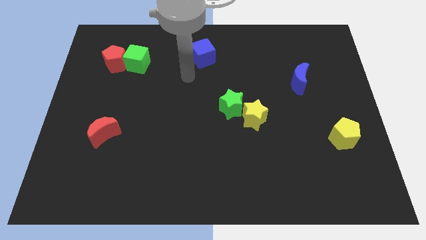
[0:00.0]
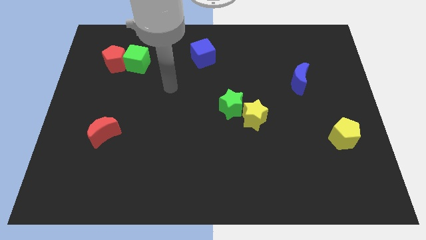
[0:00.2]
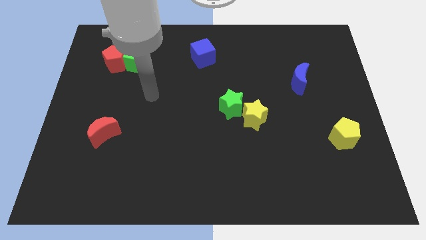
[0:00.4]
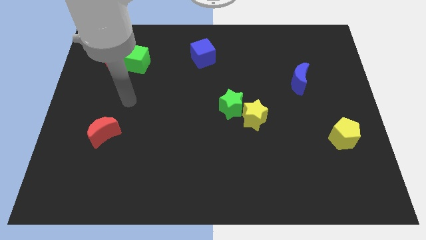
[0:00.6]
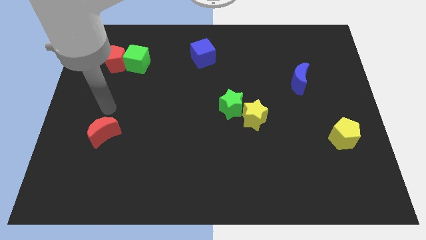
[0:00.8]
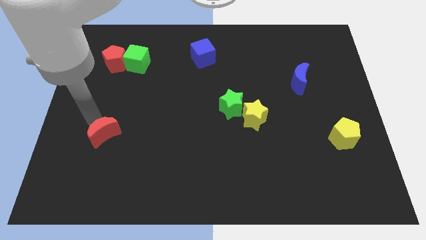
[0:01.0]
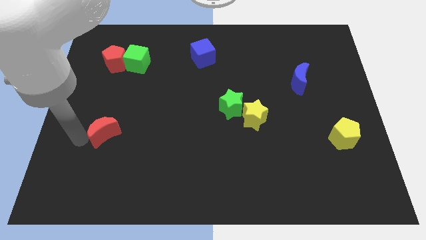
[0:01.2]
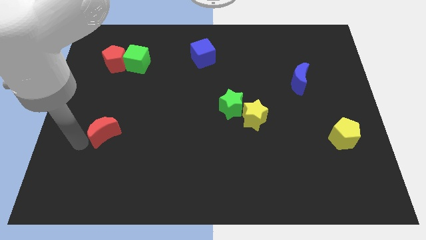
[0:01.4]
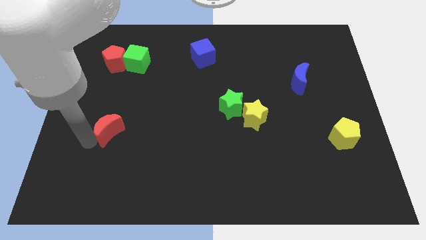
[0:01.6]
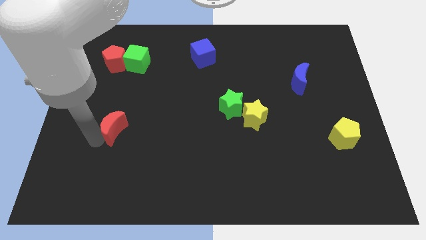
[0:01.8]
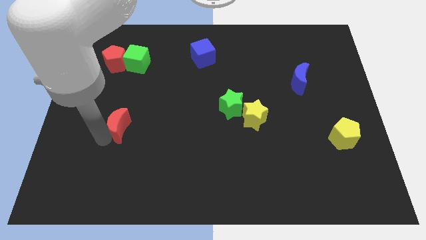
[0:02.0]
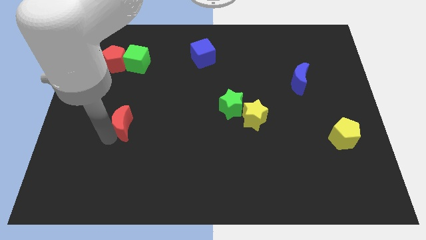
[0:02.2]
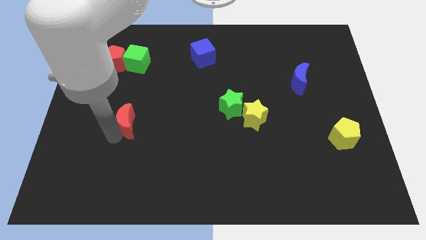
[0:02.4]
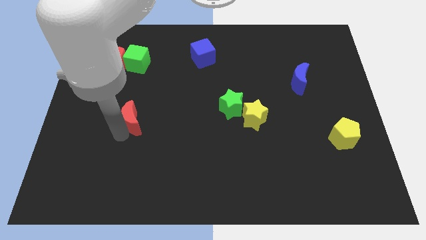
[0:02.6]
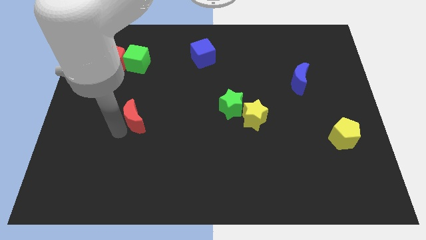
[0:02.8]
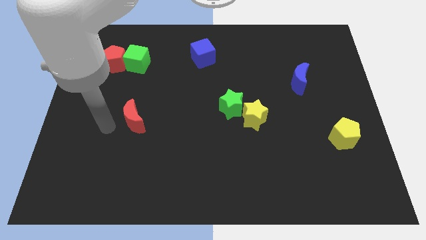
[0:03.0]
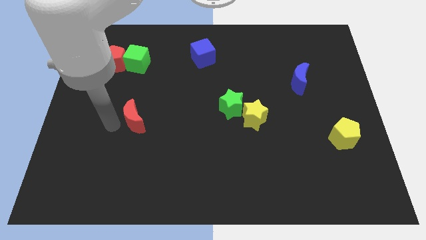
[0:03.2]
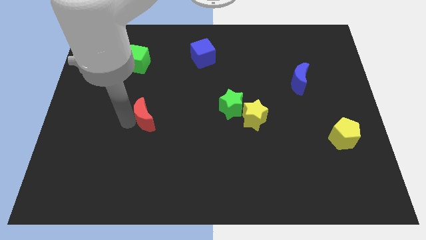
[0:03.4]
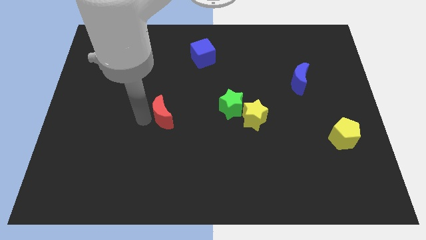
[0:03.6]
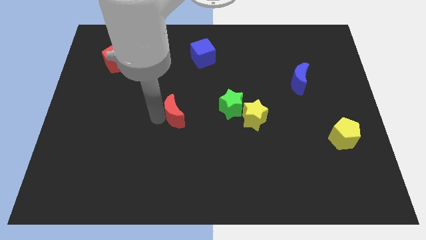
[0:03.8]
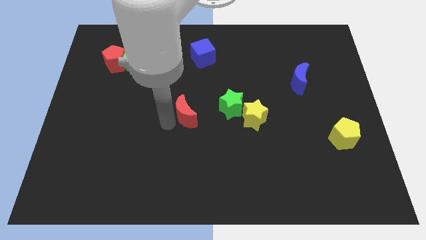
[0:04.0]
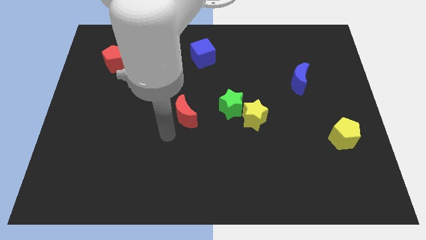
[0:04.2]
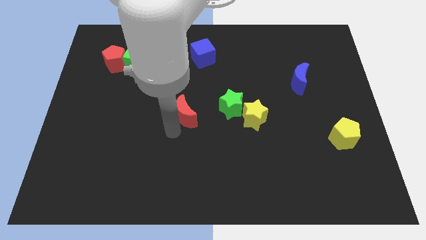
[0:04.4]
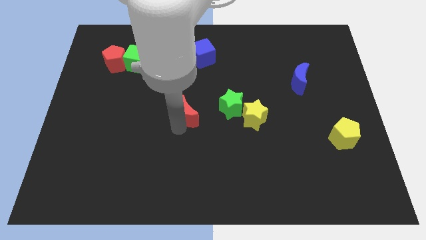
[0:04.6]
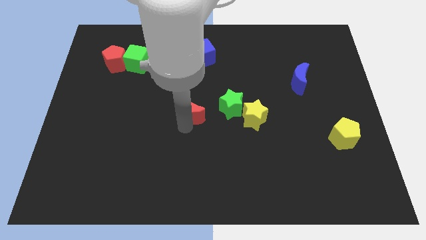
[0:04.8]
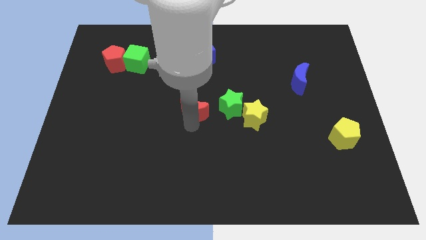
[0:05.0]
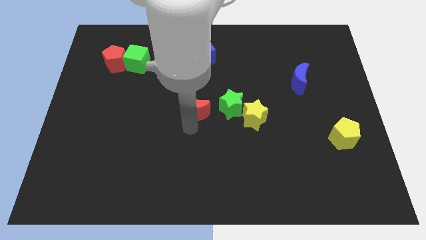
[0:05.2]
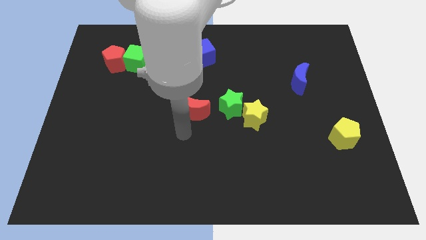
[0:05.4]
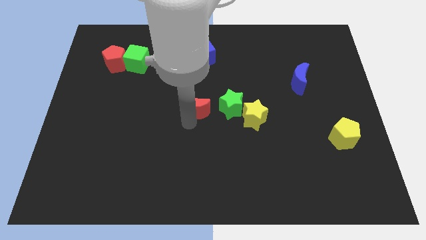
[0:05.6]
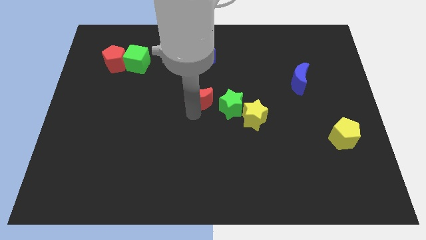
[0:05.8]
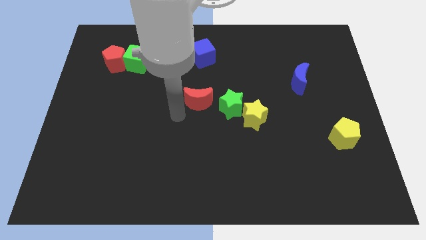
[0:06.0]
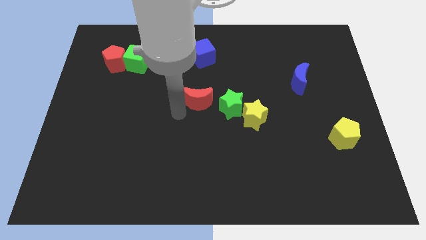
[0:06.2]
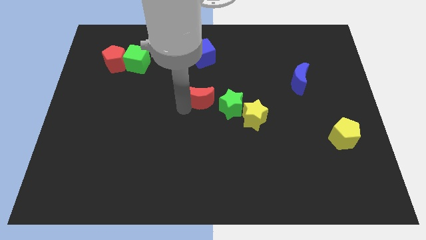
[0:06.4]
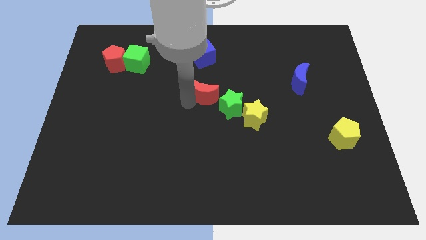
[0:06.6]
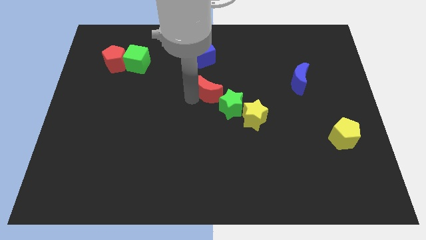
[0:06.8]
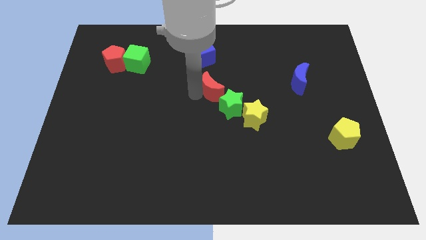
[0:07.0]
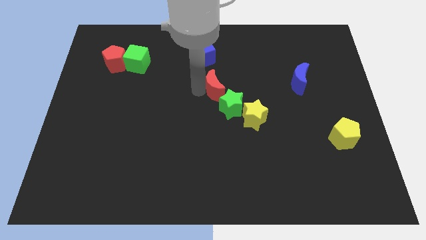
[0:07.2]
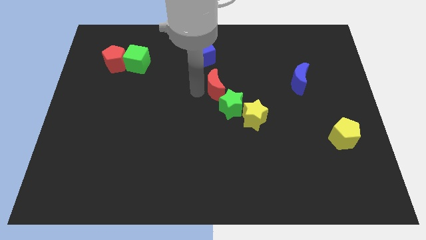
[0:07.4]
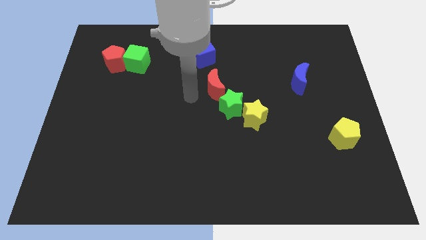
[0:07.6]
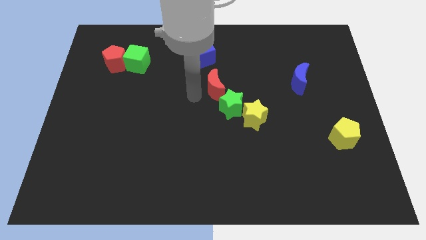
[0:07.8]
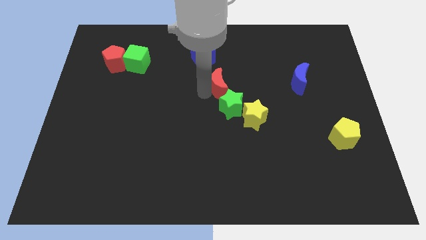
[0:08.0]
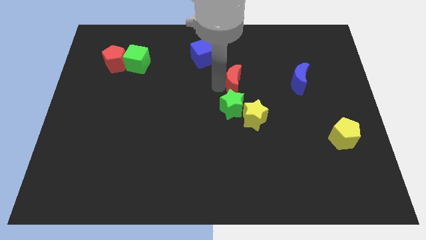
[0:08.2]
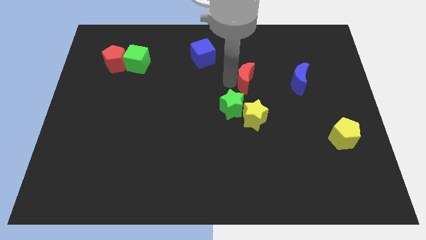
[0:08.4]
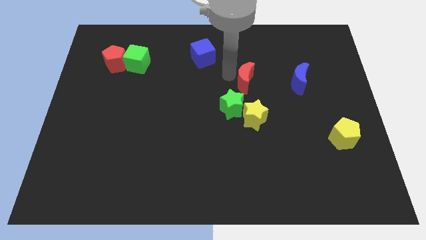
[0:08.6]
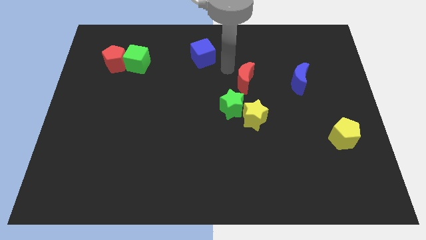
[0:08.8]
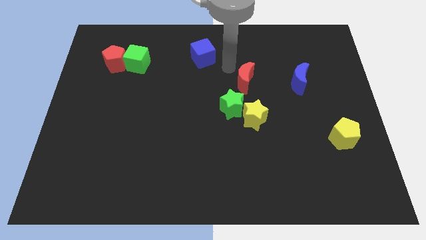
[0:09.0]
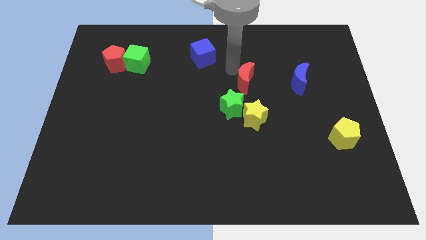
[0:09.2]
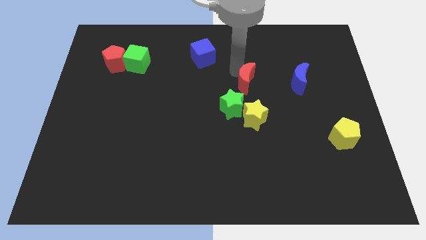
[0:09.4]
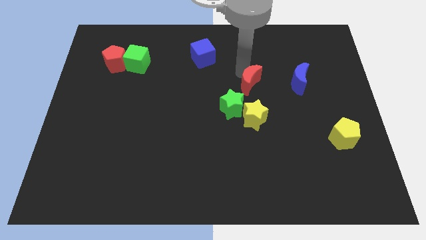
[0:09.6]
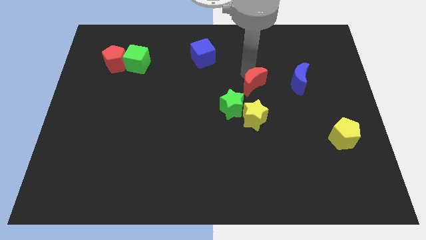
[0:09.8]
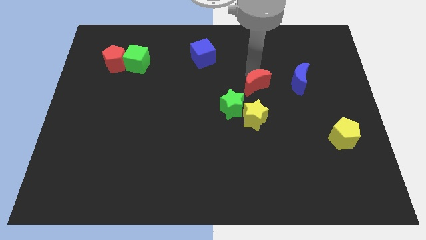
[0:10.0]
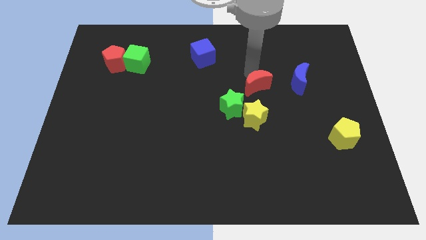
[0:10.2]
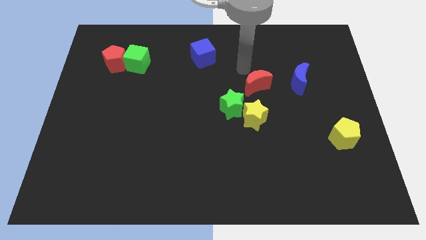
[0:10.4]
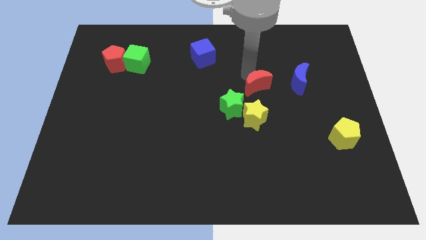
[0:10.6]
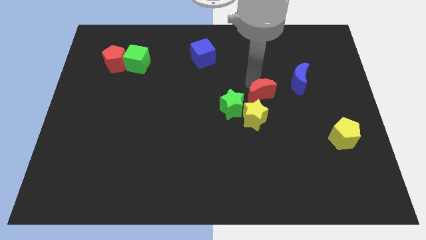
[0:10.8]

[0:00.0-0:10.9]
slide the red moon to the bottom left side of the blue moon

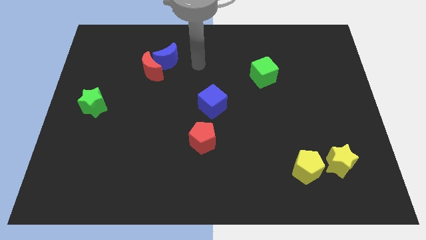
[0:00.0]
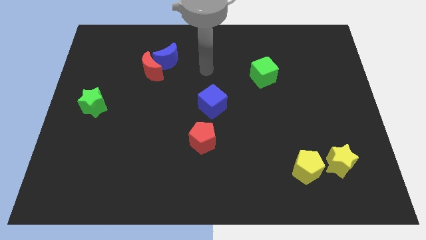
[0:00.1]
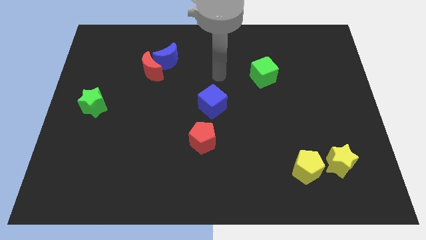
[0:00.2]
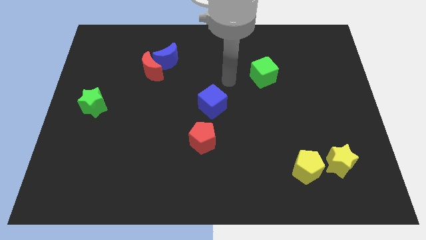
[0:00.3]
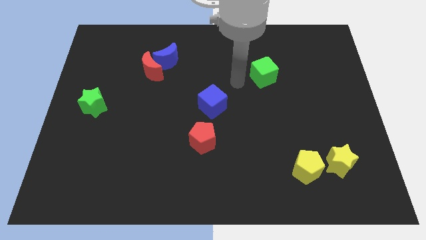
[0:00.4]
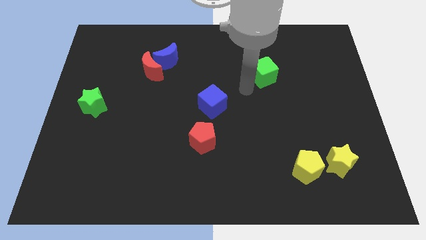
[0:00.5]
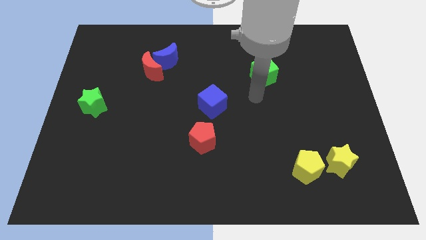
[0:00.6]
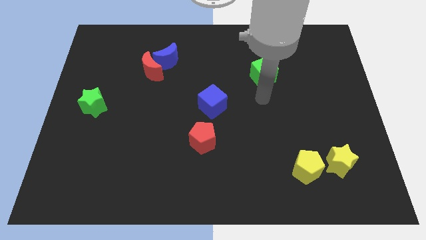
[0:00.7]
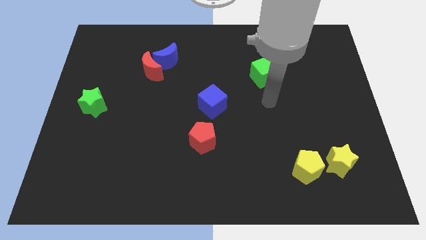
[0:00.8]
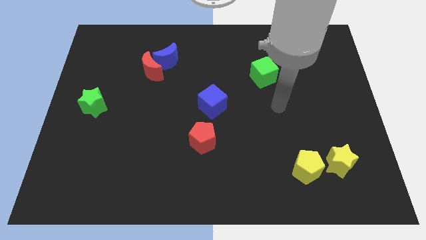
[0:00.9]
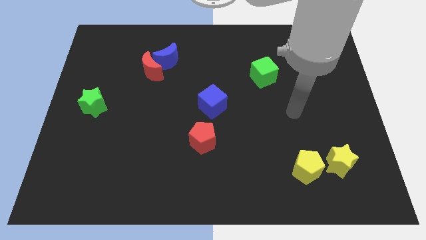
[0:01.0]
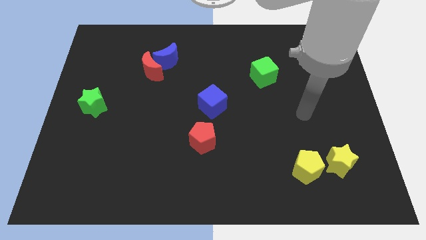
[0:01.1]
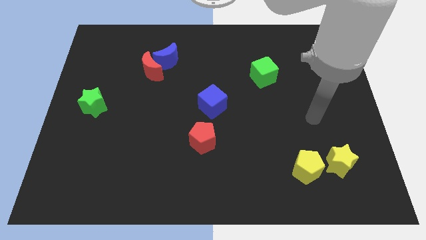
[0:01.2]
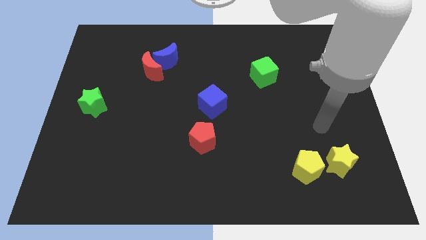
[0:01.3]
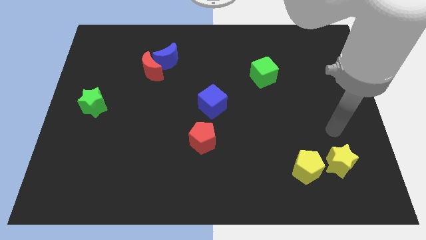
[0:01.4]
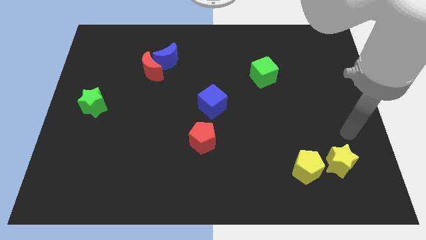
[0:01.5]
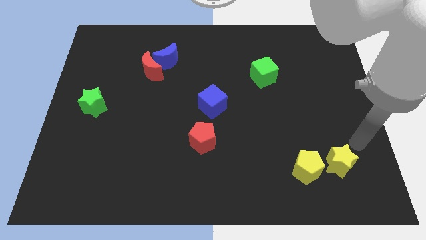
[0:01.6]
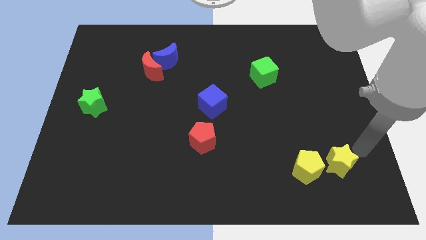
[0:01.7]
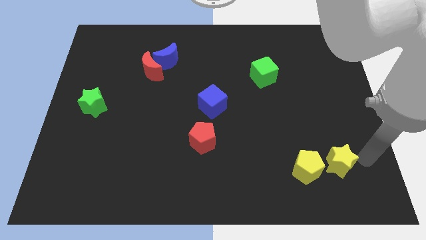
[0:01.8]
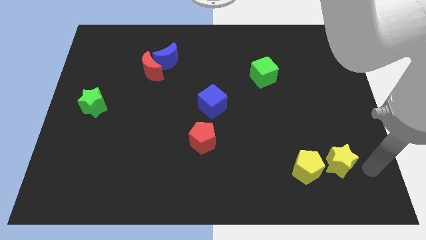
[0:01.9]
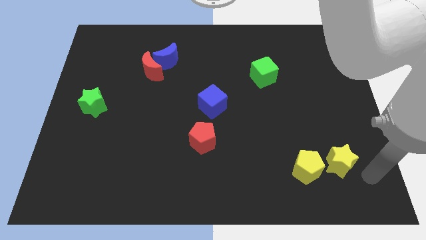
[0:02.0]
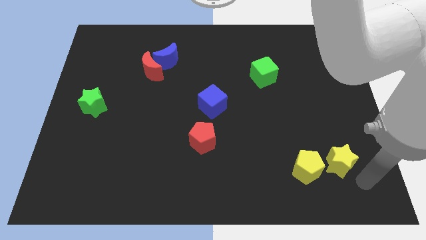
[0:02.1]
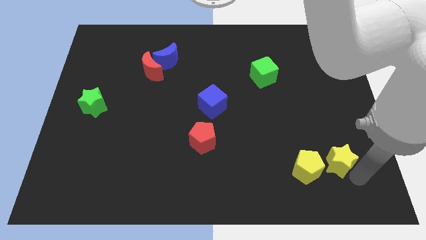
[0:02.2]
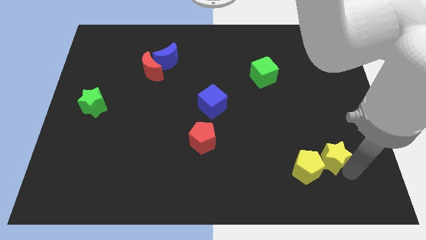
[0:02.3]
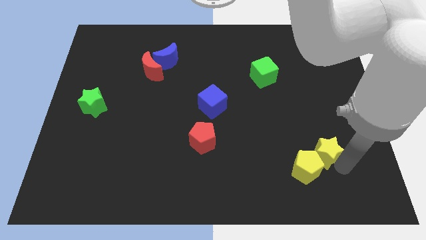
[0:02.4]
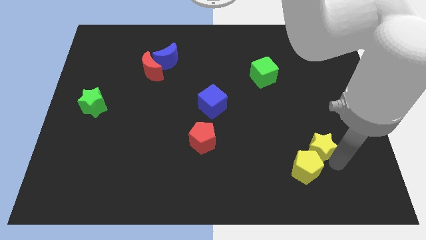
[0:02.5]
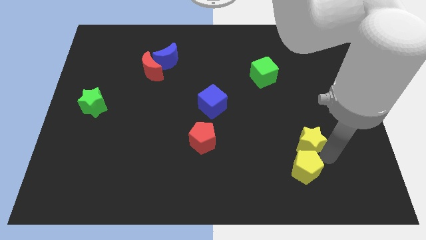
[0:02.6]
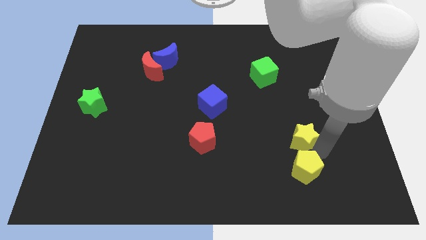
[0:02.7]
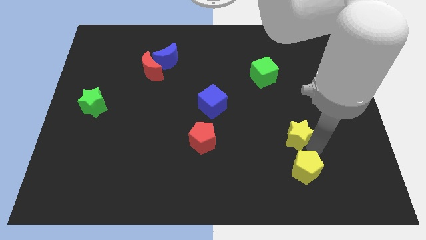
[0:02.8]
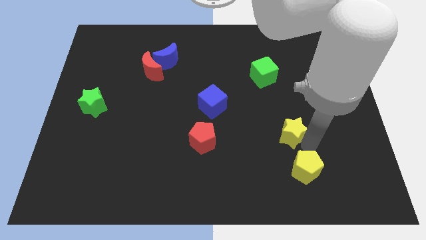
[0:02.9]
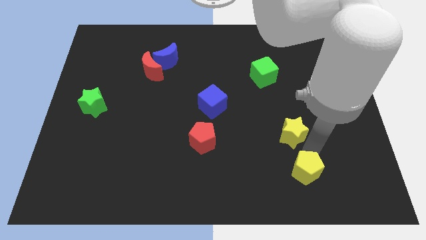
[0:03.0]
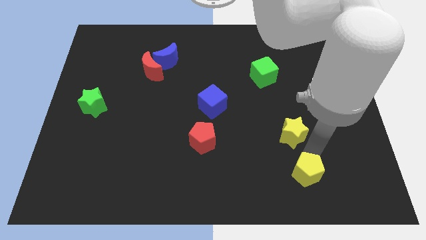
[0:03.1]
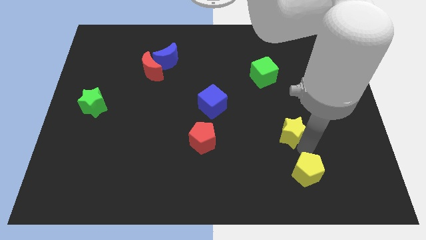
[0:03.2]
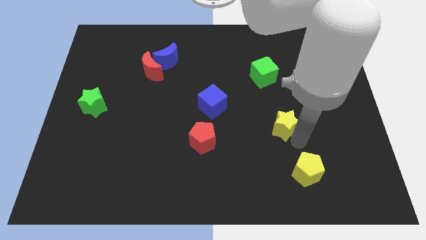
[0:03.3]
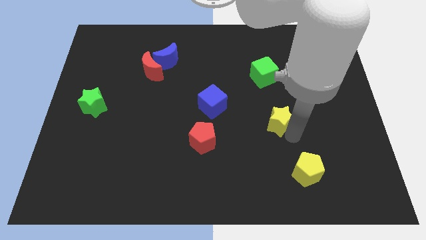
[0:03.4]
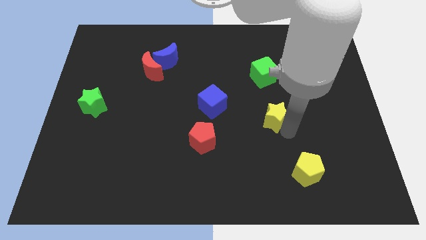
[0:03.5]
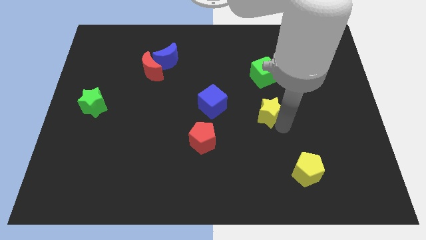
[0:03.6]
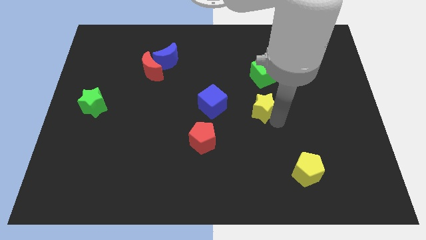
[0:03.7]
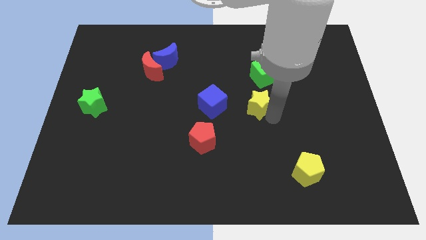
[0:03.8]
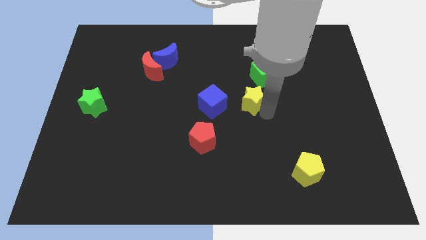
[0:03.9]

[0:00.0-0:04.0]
move the yellow star to the bottom left side of the green cube
